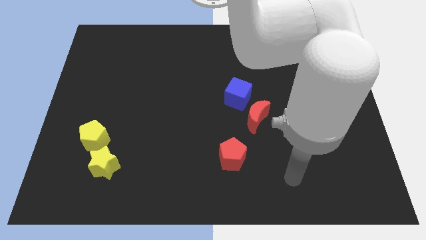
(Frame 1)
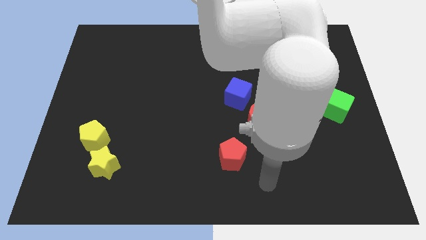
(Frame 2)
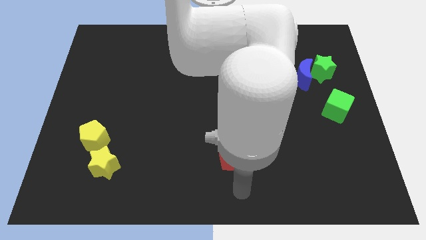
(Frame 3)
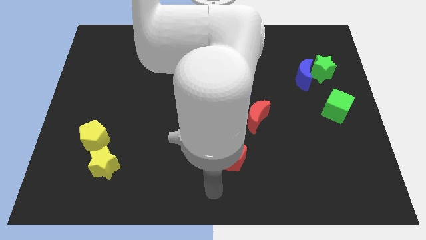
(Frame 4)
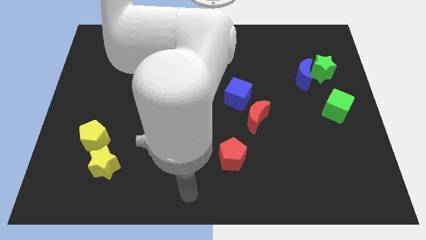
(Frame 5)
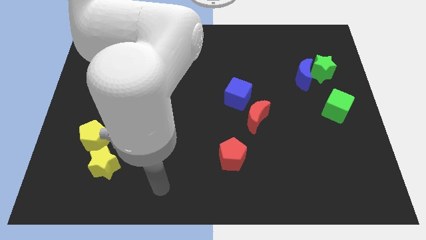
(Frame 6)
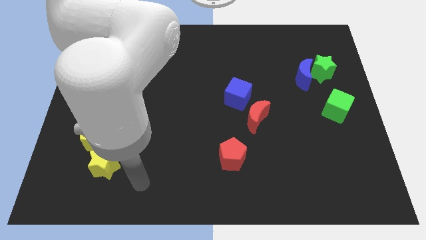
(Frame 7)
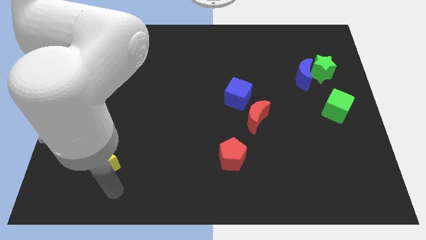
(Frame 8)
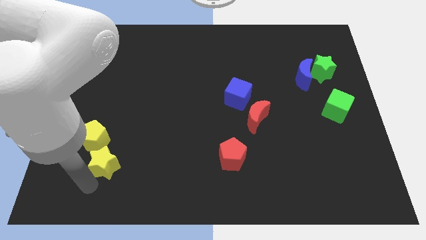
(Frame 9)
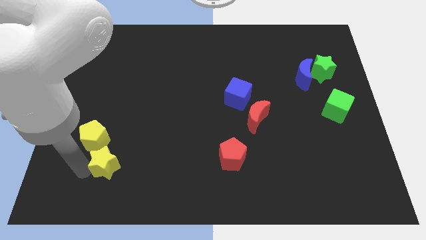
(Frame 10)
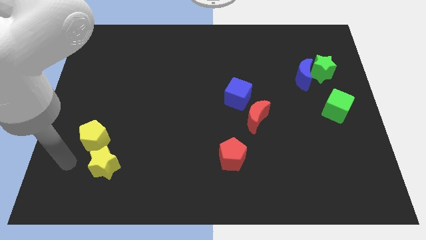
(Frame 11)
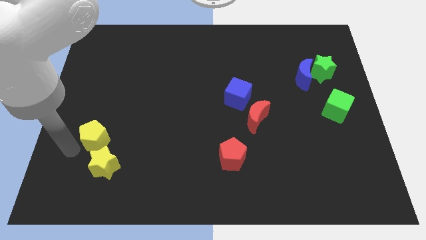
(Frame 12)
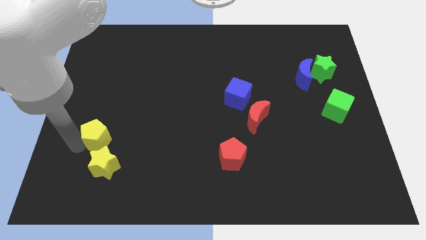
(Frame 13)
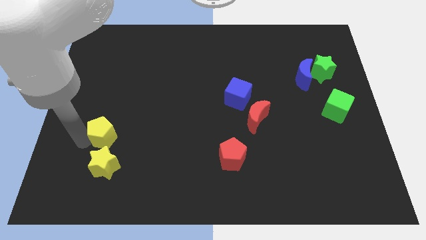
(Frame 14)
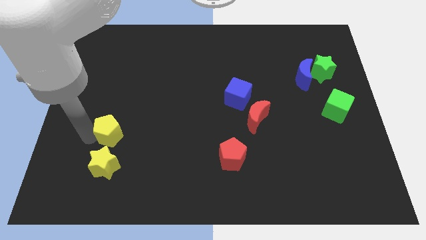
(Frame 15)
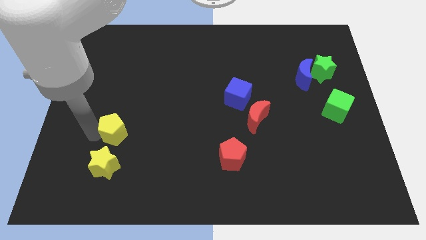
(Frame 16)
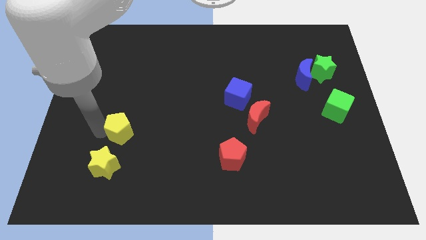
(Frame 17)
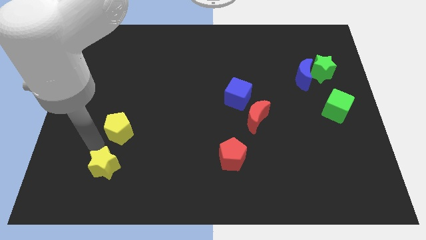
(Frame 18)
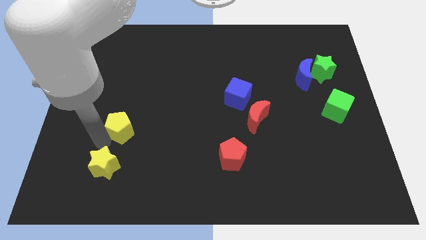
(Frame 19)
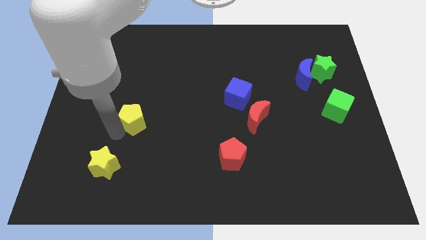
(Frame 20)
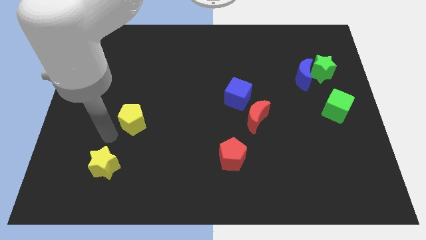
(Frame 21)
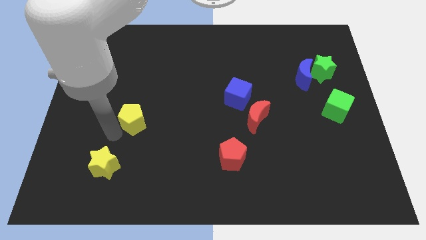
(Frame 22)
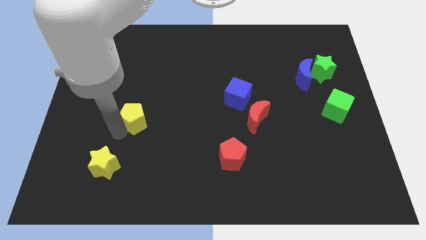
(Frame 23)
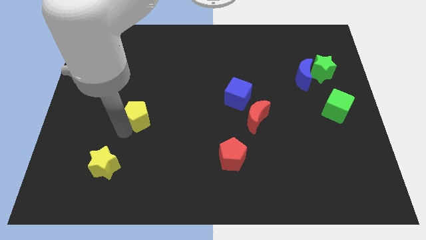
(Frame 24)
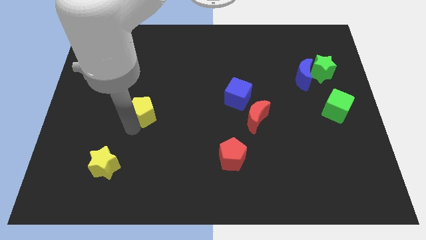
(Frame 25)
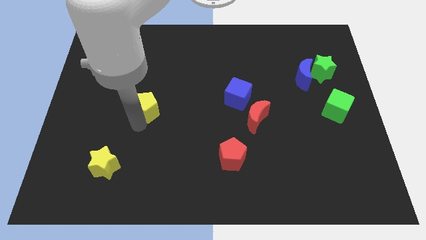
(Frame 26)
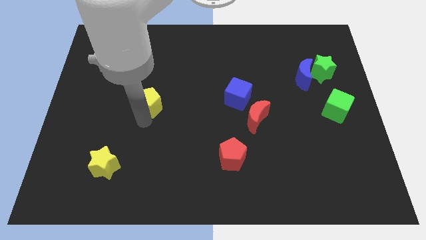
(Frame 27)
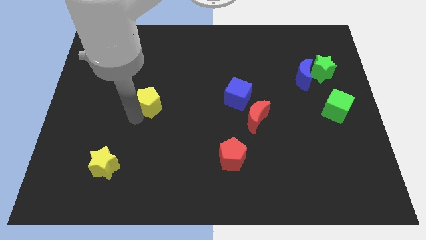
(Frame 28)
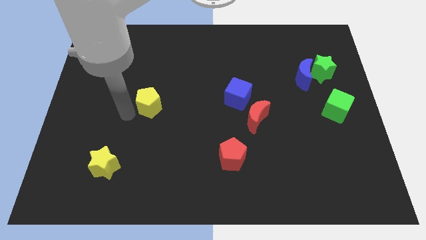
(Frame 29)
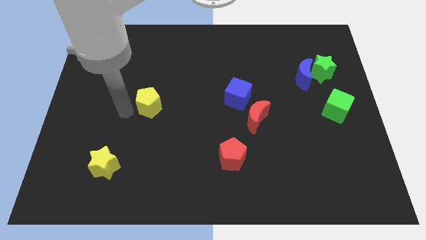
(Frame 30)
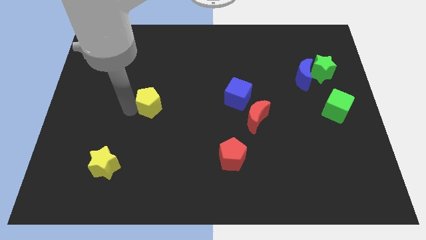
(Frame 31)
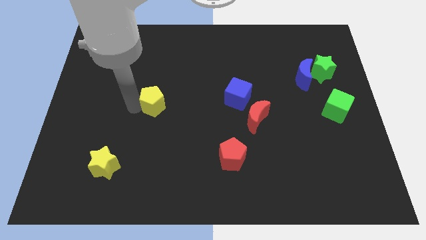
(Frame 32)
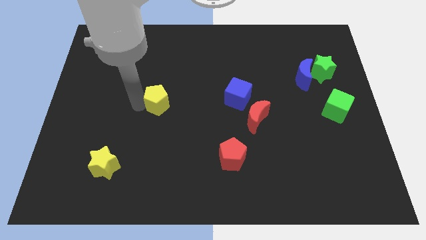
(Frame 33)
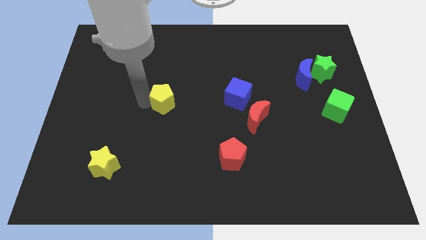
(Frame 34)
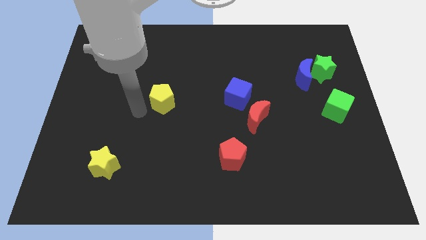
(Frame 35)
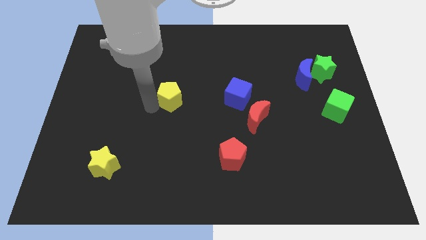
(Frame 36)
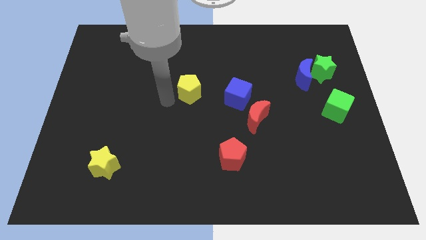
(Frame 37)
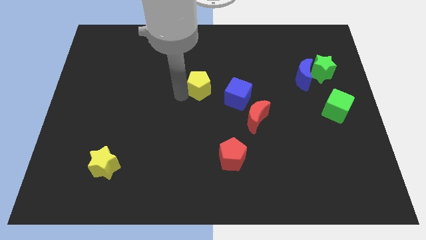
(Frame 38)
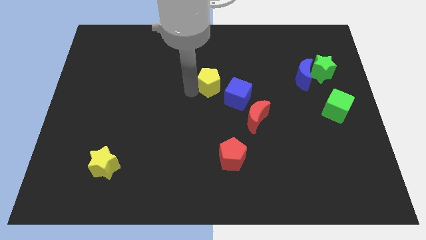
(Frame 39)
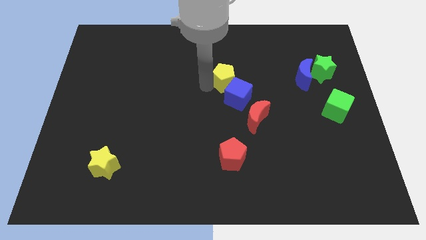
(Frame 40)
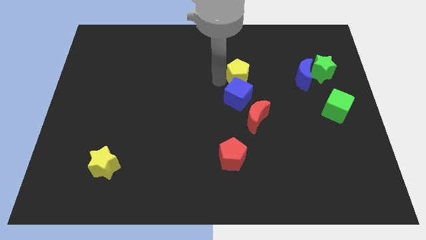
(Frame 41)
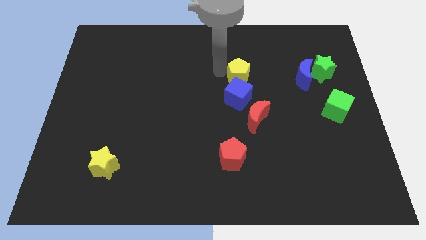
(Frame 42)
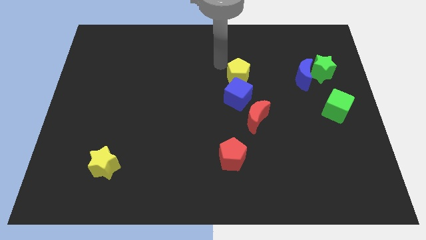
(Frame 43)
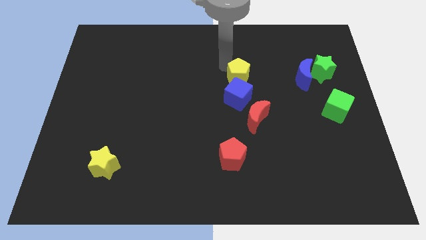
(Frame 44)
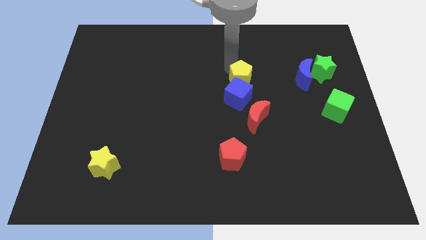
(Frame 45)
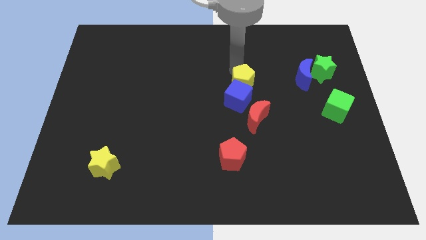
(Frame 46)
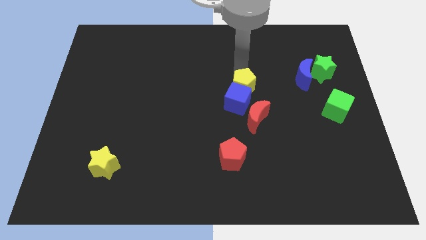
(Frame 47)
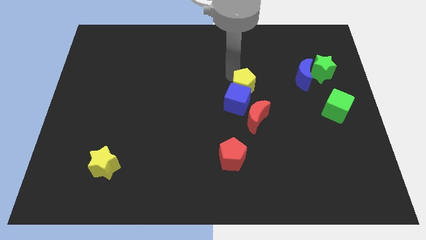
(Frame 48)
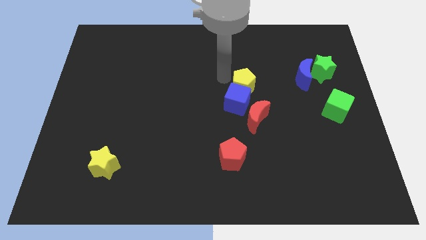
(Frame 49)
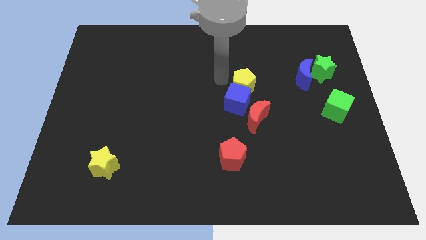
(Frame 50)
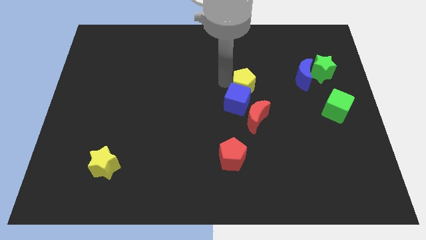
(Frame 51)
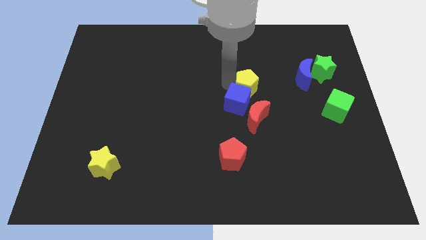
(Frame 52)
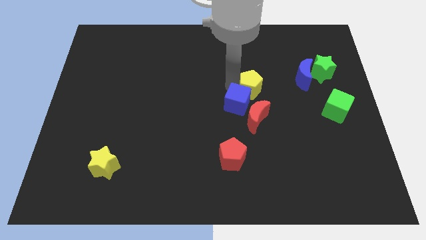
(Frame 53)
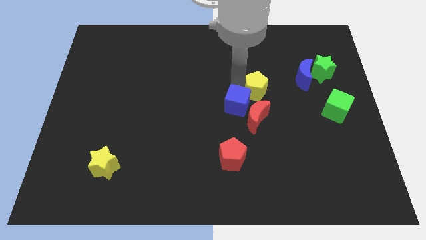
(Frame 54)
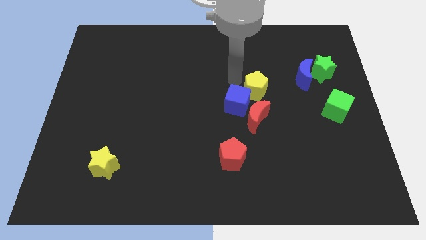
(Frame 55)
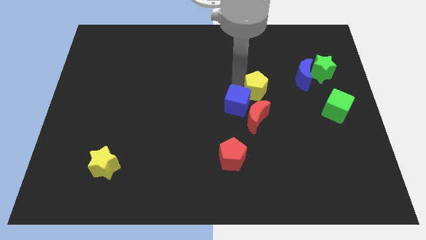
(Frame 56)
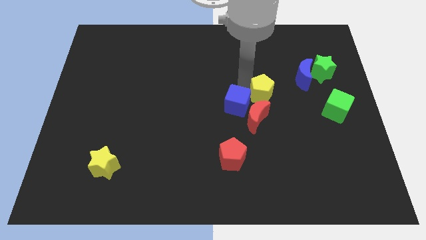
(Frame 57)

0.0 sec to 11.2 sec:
move the yellow pentagon diagonally up and to the right of the red moon

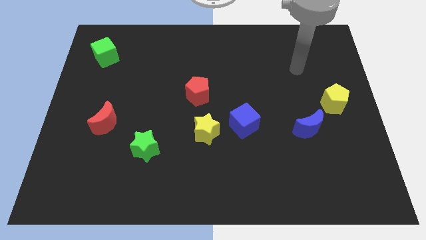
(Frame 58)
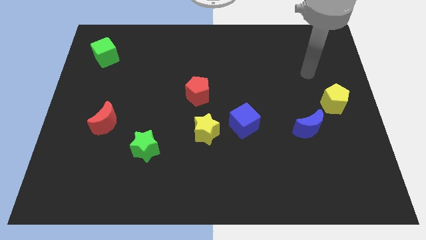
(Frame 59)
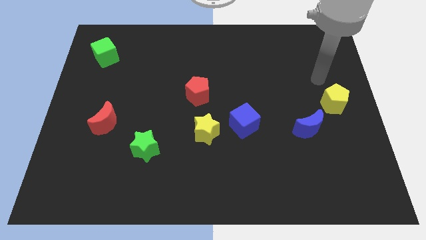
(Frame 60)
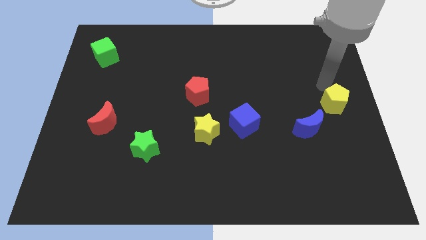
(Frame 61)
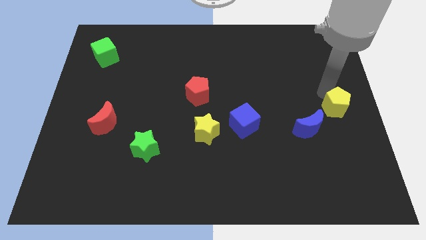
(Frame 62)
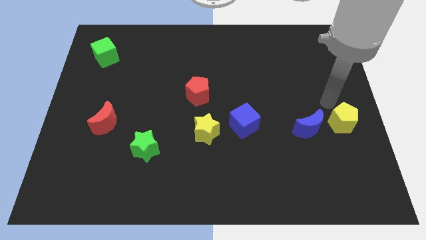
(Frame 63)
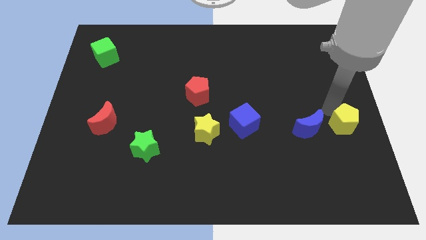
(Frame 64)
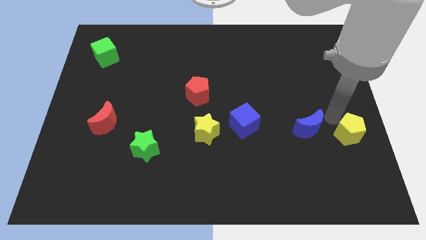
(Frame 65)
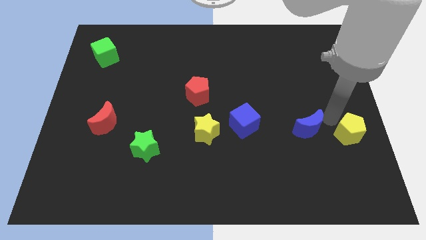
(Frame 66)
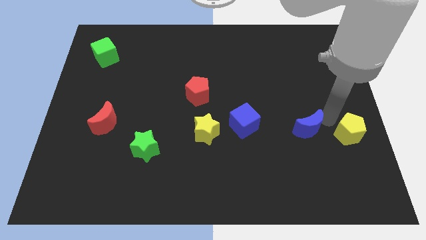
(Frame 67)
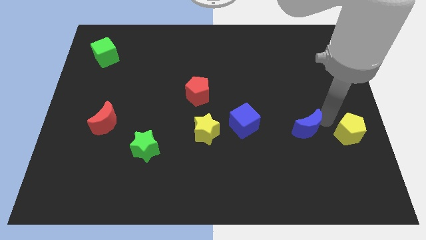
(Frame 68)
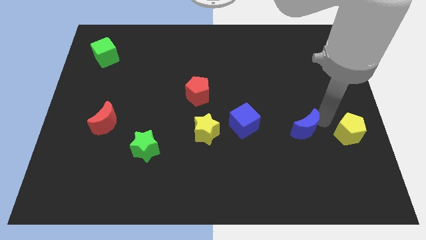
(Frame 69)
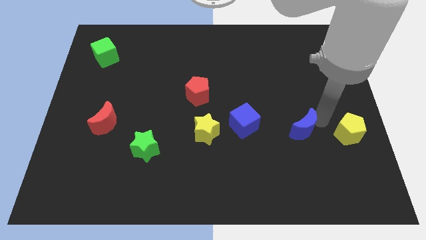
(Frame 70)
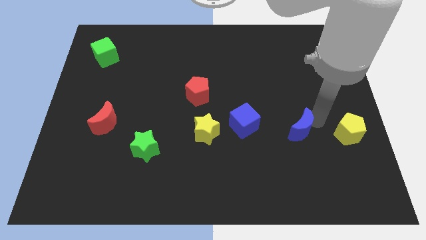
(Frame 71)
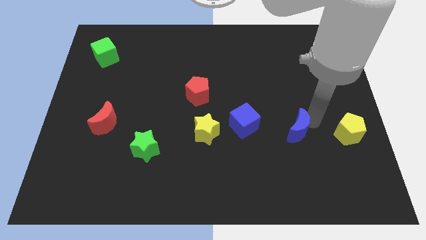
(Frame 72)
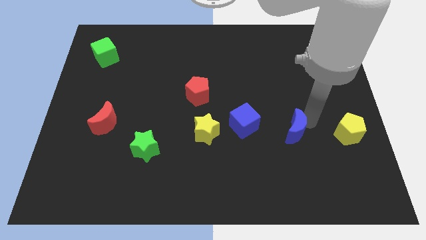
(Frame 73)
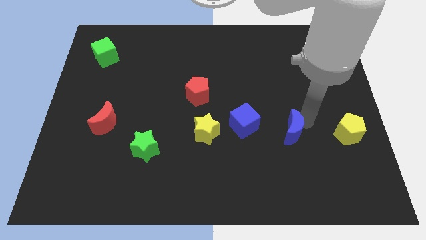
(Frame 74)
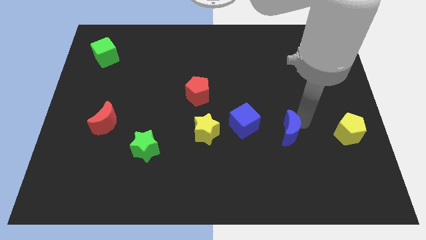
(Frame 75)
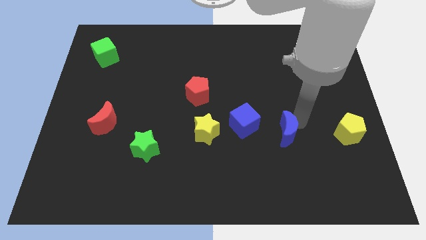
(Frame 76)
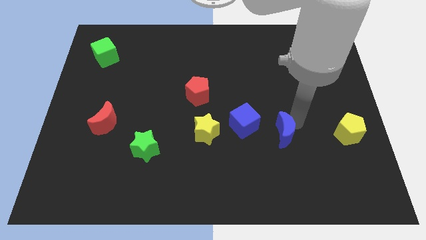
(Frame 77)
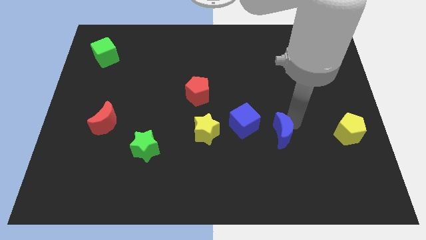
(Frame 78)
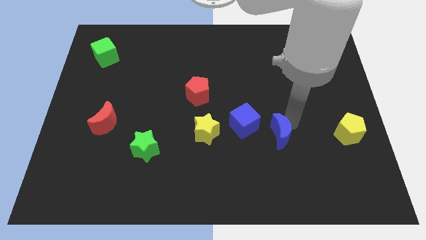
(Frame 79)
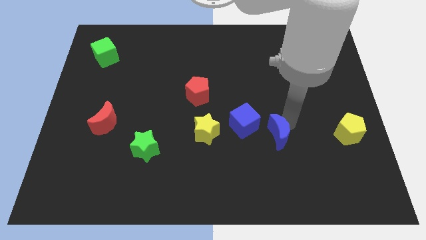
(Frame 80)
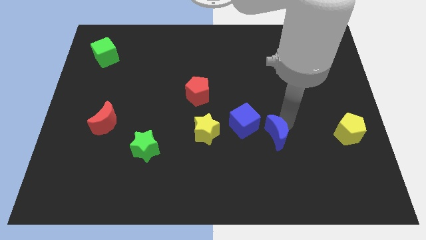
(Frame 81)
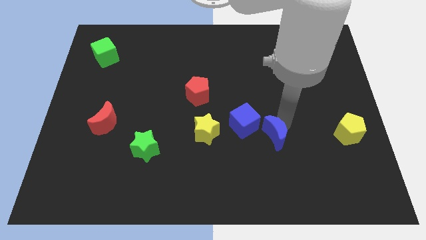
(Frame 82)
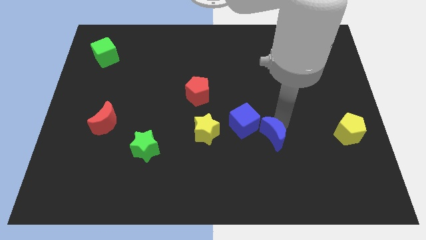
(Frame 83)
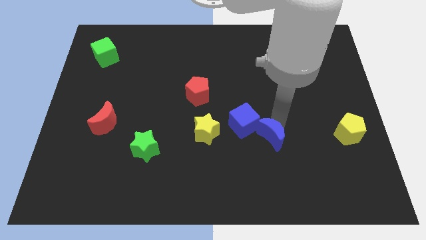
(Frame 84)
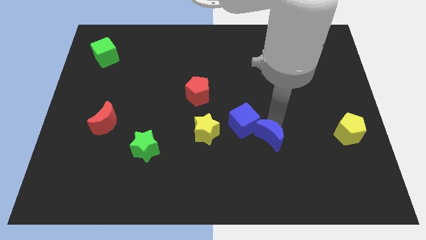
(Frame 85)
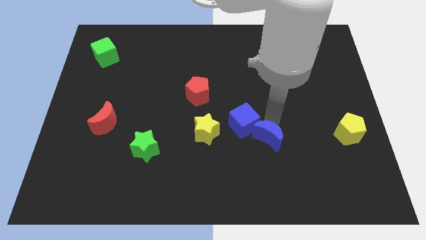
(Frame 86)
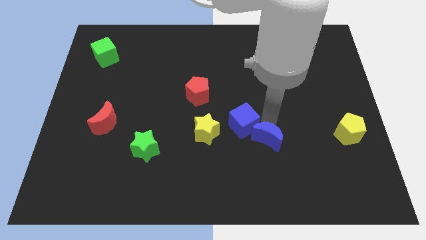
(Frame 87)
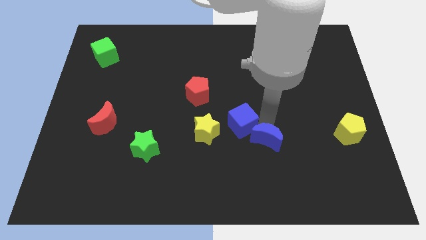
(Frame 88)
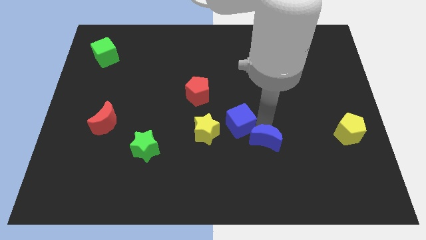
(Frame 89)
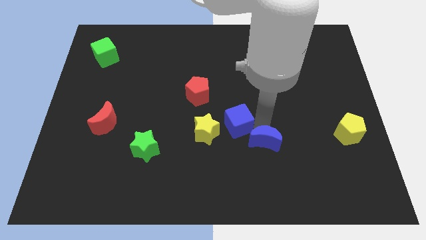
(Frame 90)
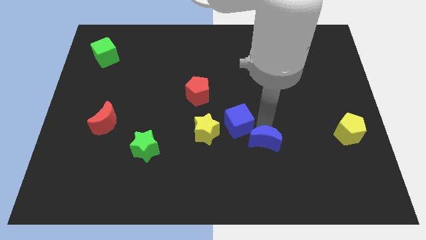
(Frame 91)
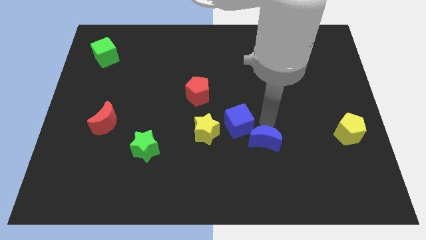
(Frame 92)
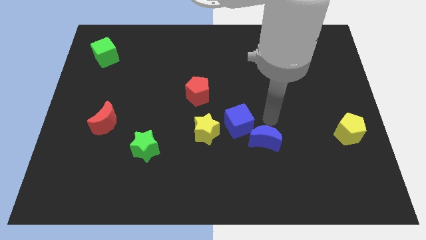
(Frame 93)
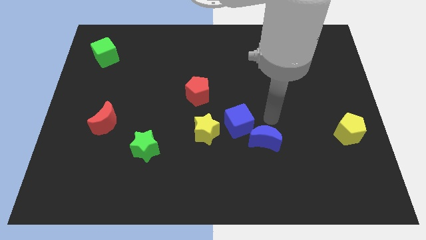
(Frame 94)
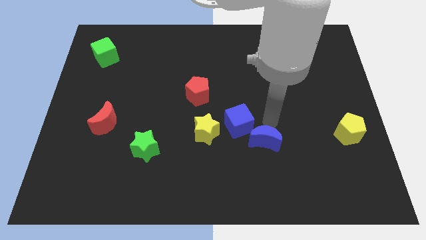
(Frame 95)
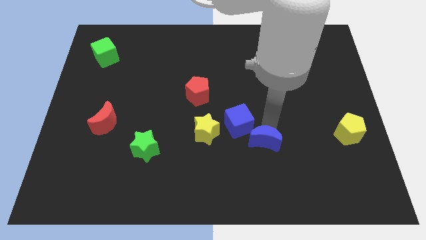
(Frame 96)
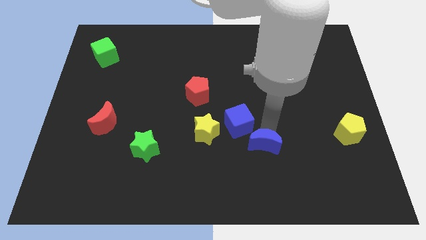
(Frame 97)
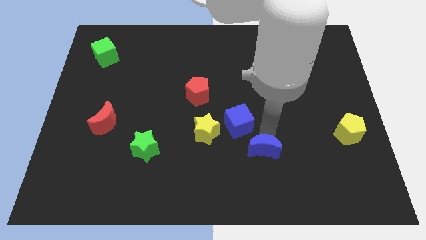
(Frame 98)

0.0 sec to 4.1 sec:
move the blue moon to the bottom of the blue cube
